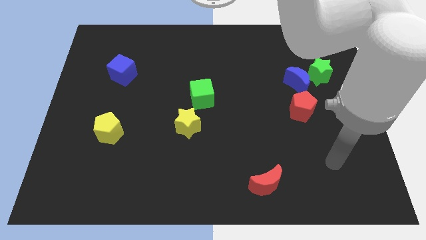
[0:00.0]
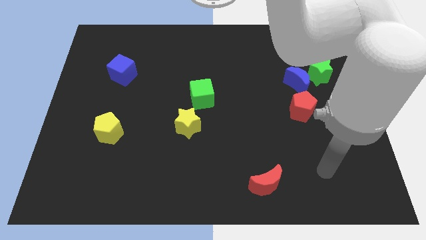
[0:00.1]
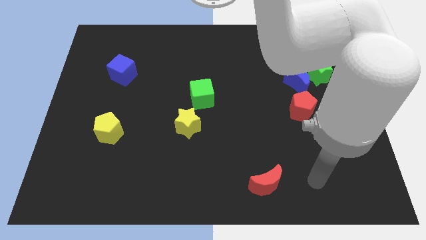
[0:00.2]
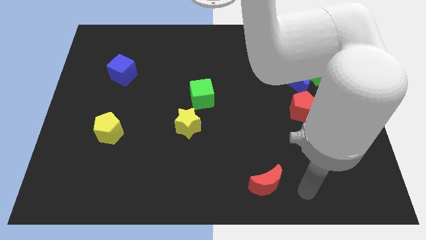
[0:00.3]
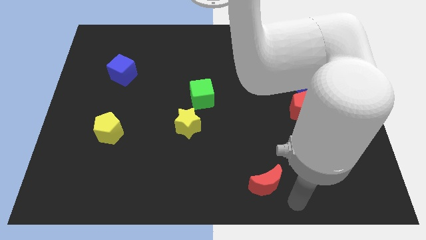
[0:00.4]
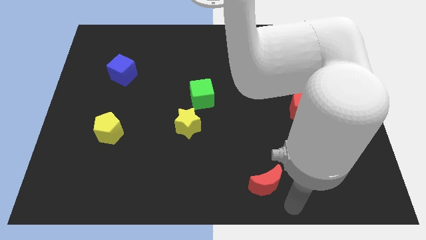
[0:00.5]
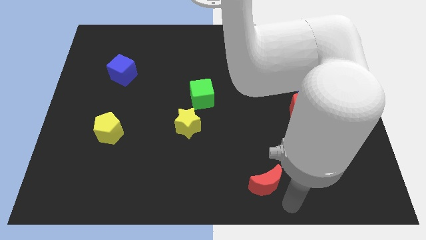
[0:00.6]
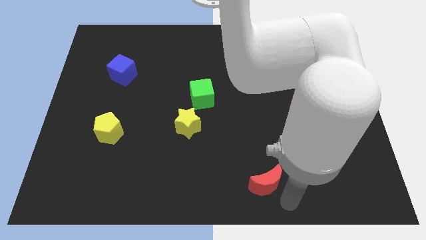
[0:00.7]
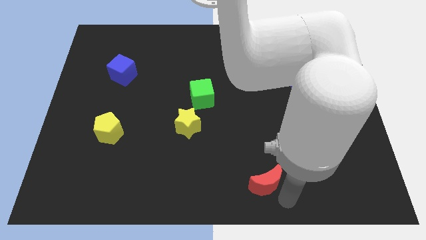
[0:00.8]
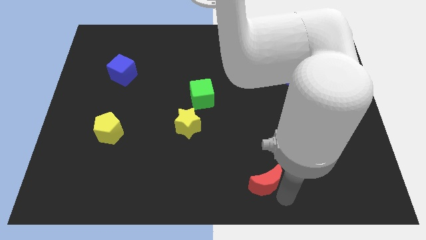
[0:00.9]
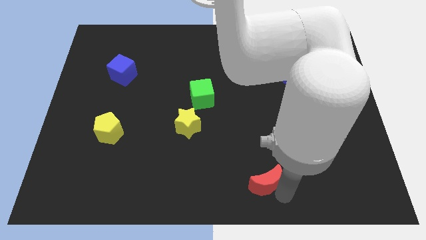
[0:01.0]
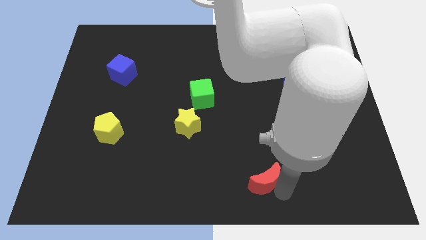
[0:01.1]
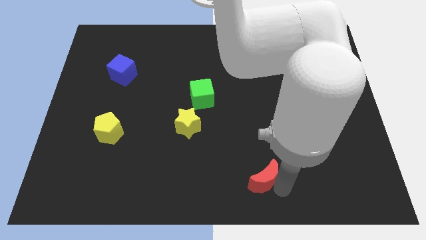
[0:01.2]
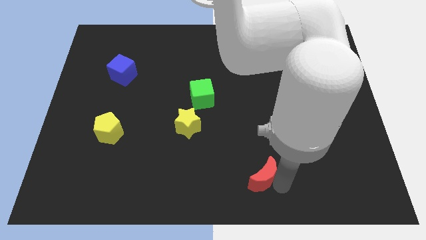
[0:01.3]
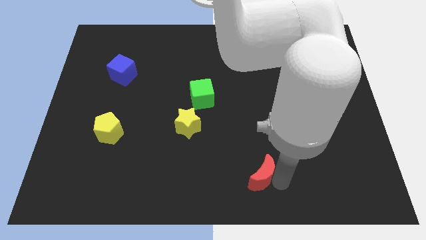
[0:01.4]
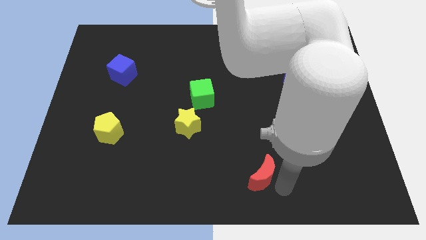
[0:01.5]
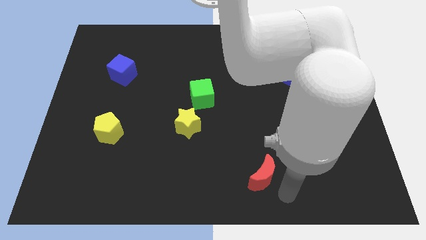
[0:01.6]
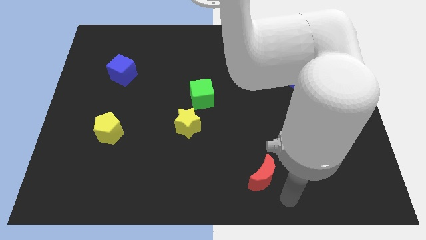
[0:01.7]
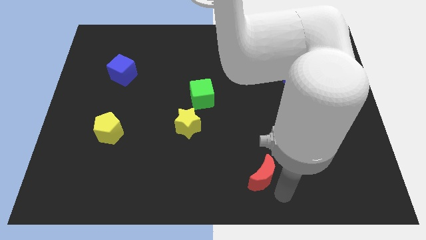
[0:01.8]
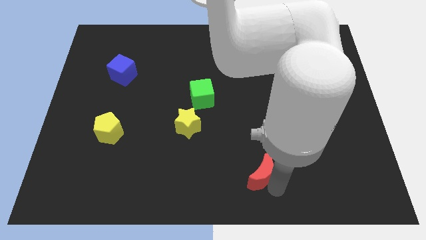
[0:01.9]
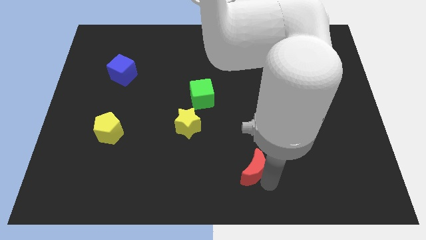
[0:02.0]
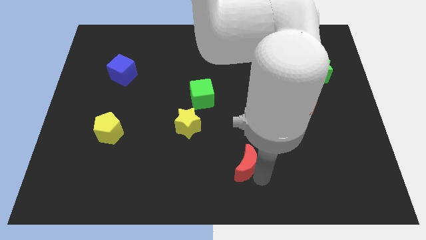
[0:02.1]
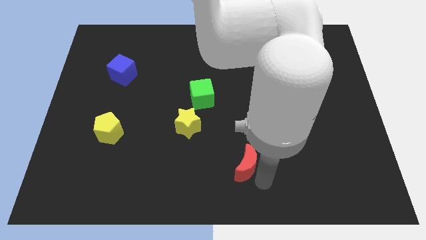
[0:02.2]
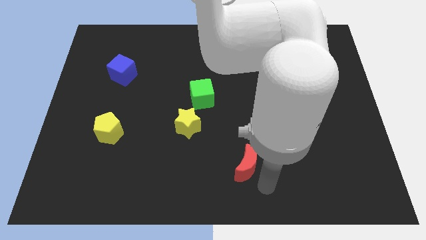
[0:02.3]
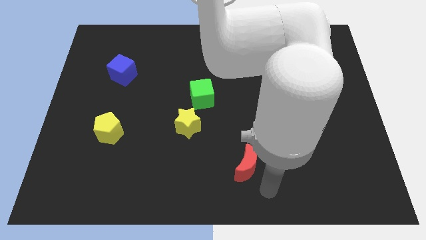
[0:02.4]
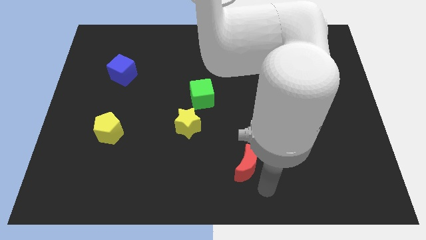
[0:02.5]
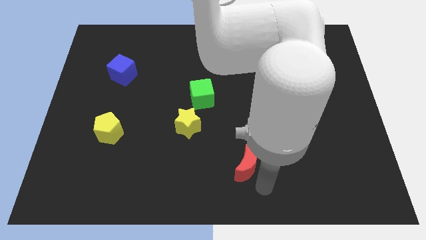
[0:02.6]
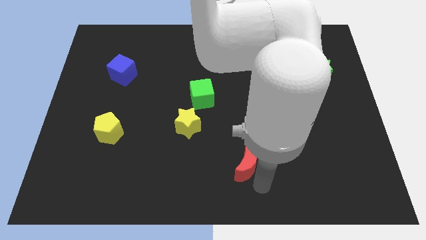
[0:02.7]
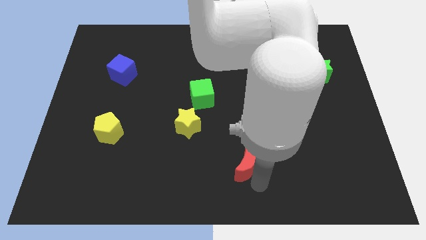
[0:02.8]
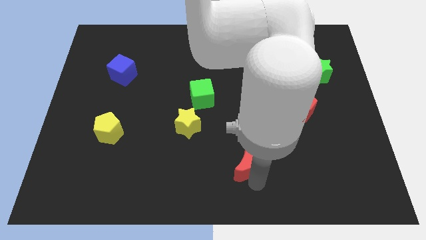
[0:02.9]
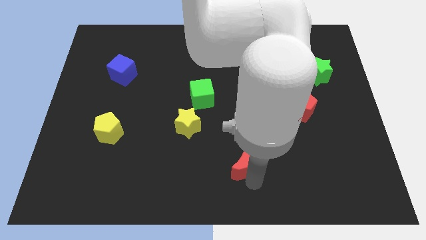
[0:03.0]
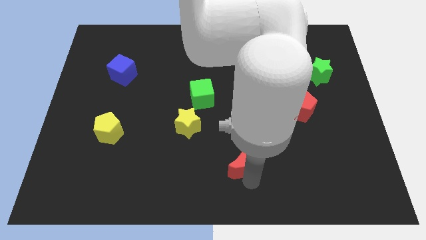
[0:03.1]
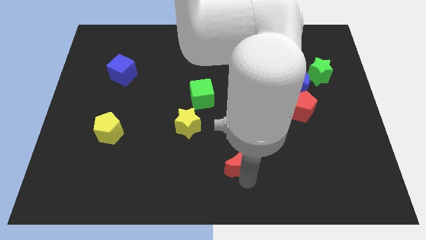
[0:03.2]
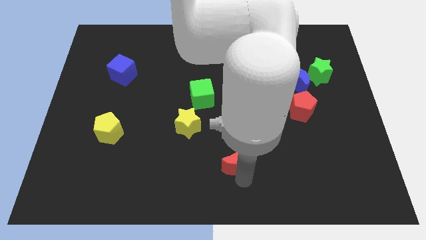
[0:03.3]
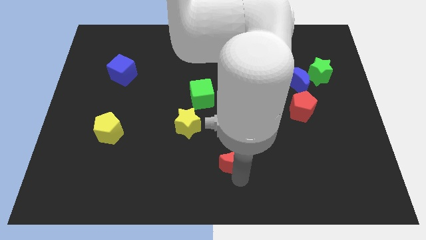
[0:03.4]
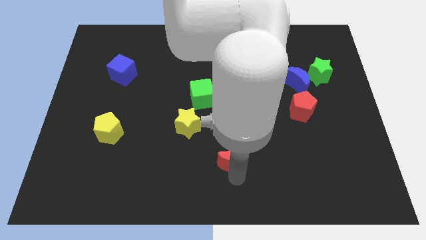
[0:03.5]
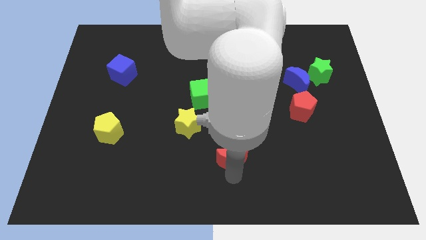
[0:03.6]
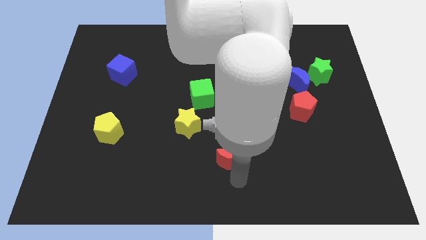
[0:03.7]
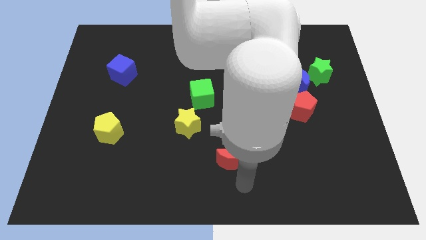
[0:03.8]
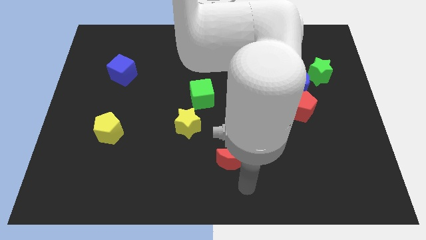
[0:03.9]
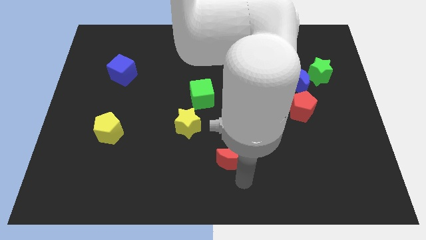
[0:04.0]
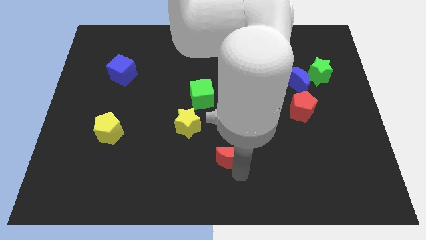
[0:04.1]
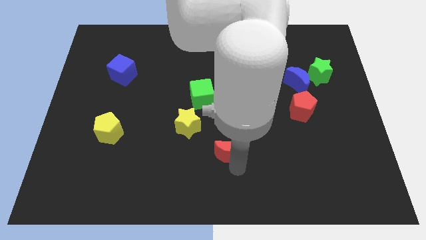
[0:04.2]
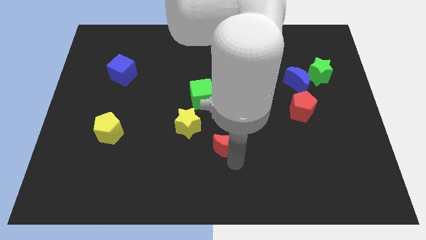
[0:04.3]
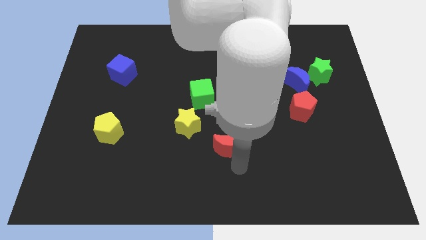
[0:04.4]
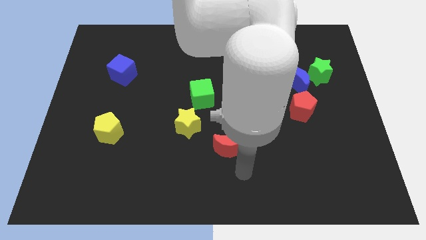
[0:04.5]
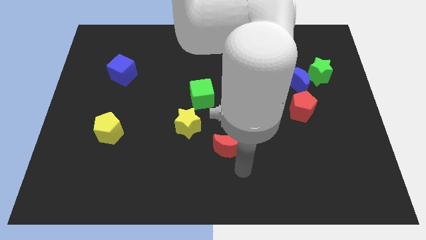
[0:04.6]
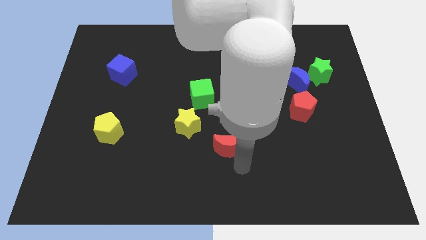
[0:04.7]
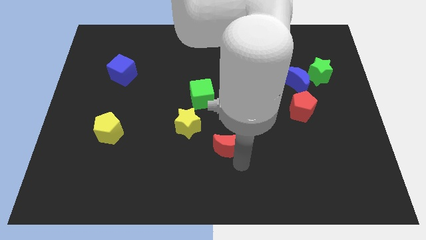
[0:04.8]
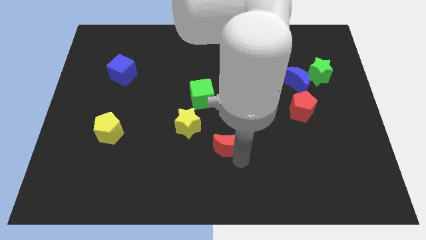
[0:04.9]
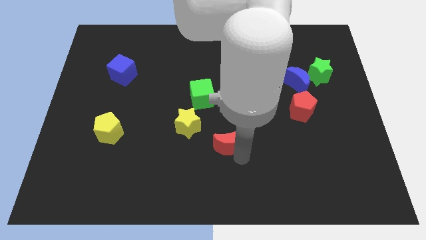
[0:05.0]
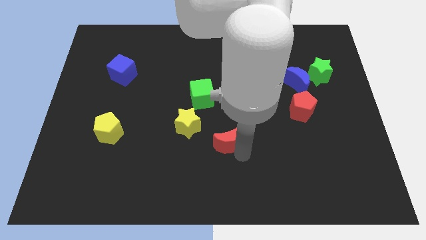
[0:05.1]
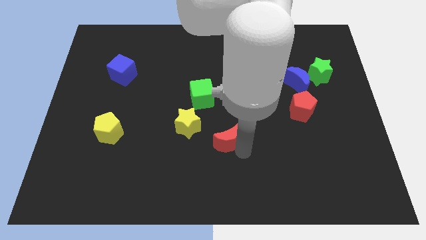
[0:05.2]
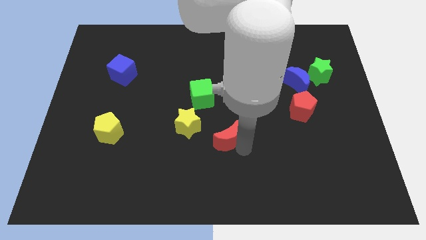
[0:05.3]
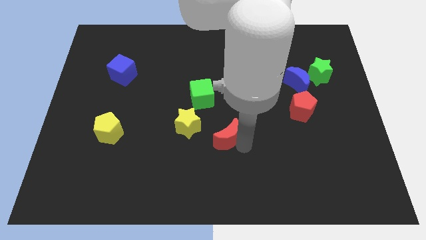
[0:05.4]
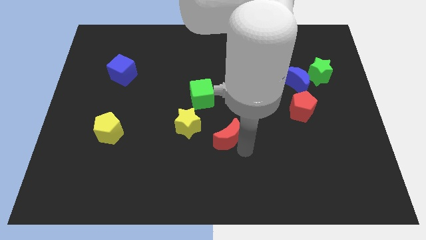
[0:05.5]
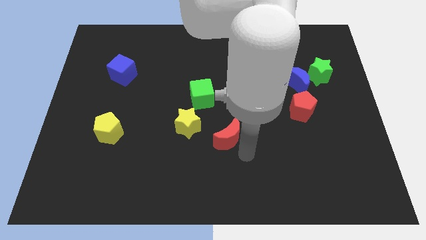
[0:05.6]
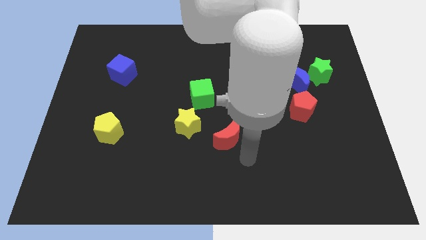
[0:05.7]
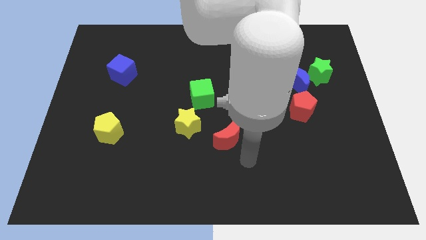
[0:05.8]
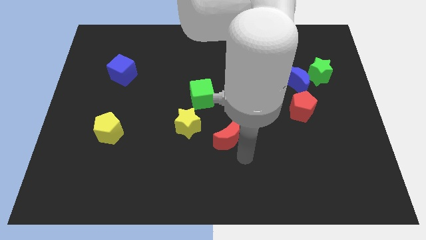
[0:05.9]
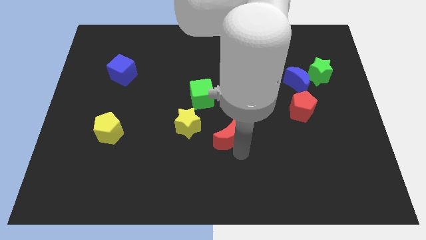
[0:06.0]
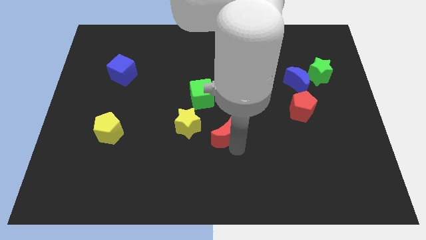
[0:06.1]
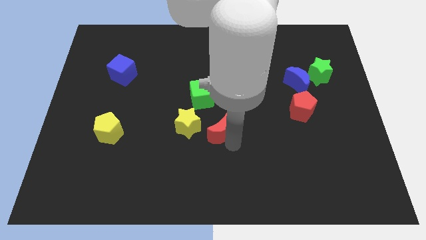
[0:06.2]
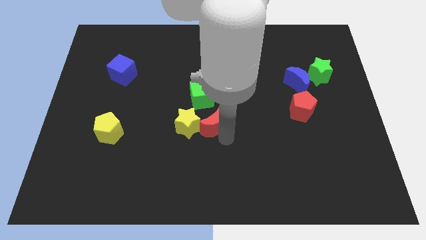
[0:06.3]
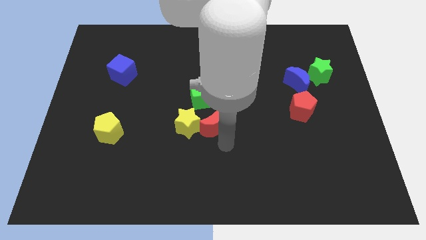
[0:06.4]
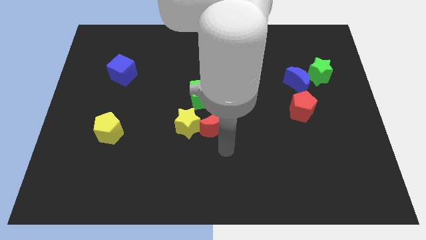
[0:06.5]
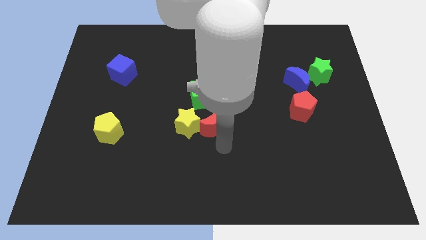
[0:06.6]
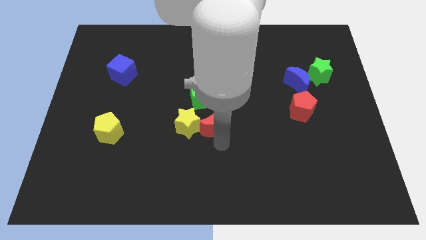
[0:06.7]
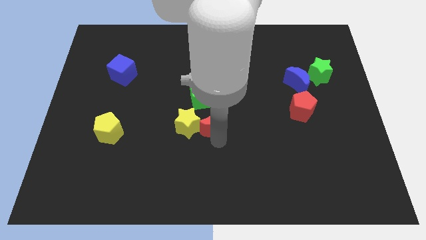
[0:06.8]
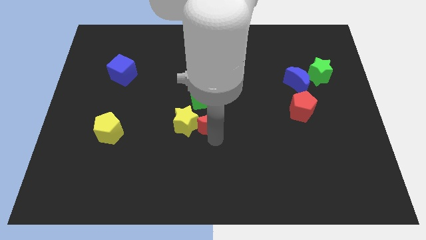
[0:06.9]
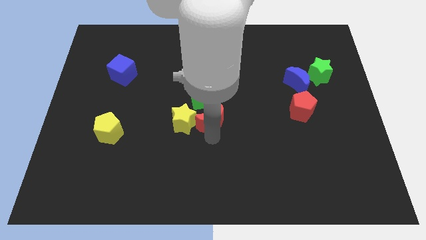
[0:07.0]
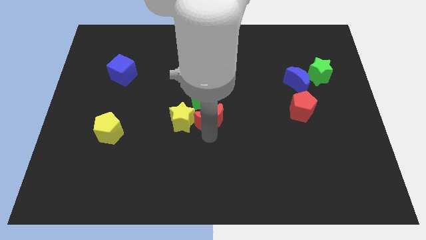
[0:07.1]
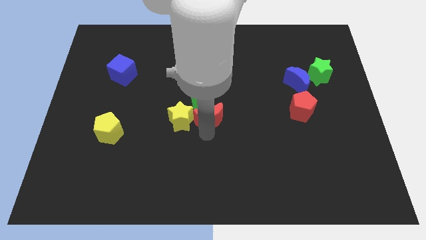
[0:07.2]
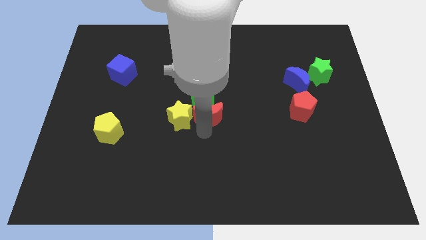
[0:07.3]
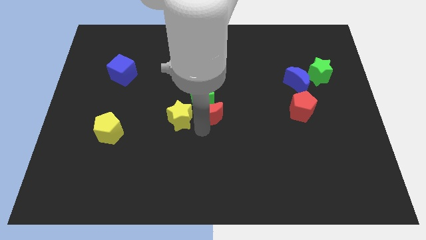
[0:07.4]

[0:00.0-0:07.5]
move the red moon to the green cube

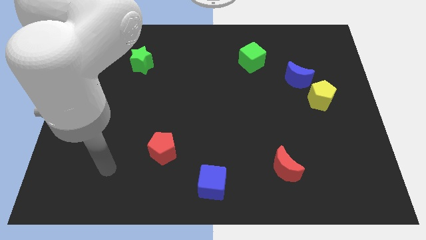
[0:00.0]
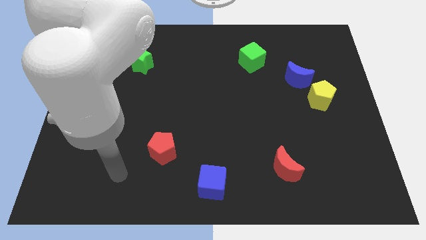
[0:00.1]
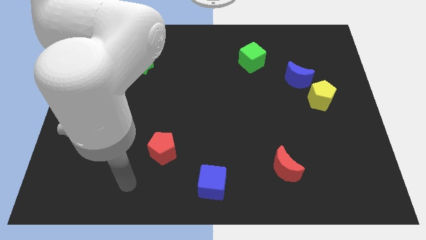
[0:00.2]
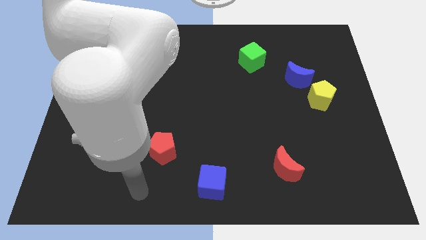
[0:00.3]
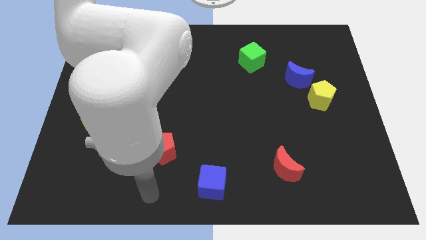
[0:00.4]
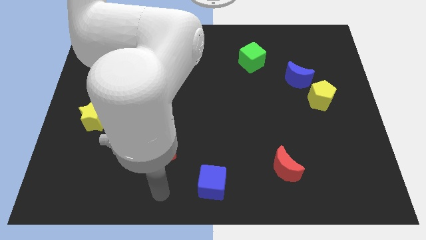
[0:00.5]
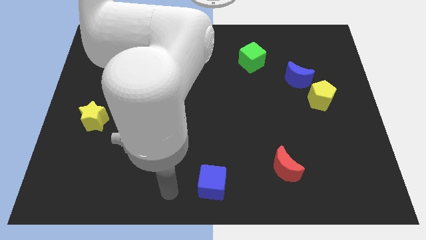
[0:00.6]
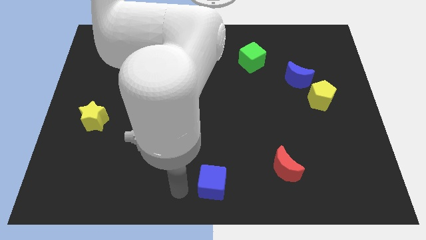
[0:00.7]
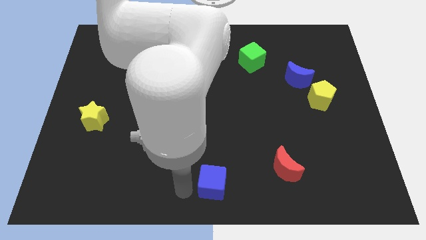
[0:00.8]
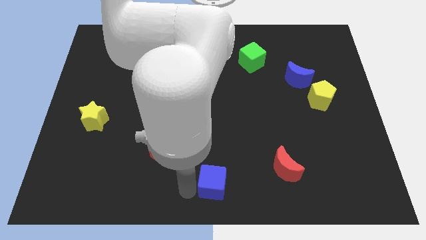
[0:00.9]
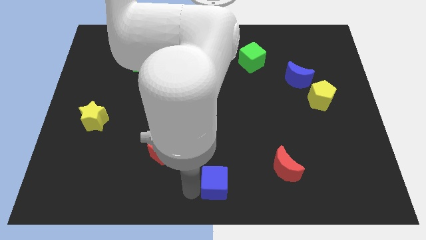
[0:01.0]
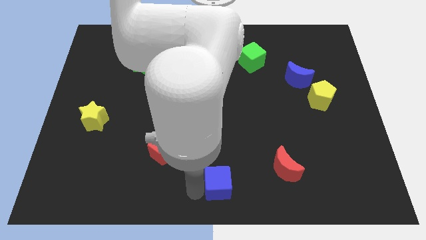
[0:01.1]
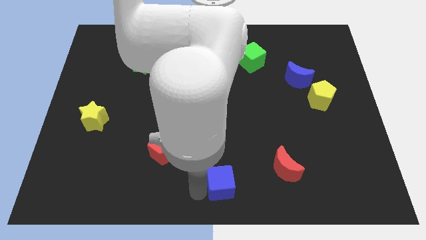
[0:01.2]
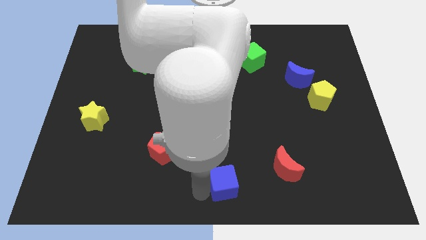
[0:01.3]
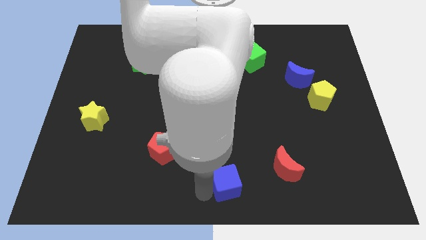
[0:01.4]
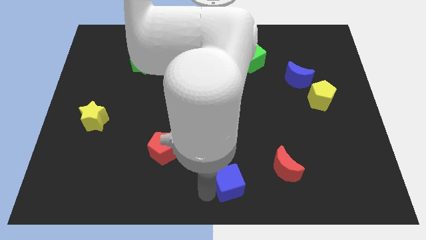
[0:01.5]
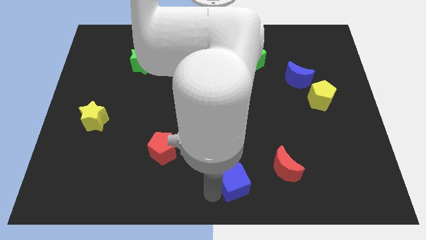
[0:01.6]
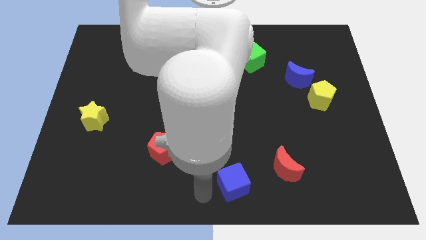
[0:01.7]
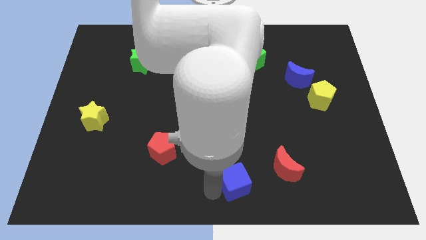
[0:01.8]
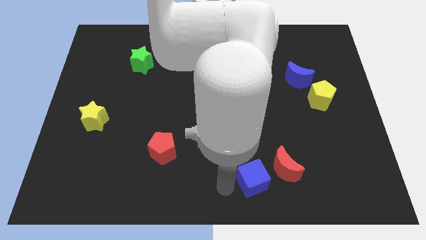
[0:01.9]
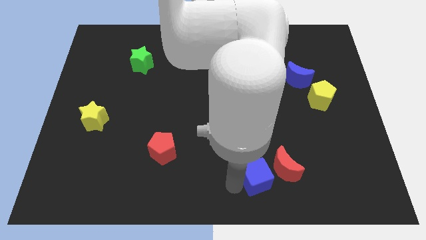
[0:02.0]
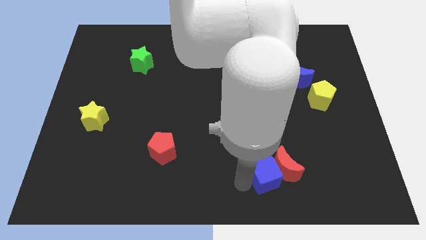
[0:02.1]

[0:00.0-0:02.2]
push the blue cube close to the red moon
